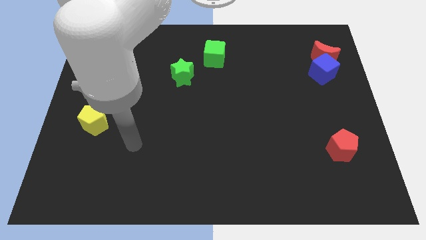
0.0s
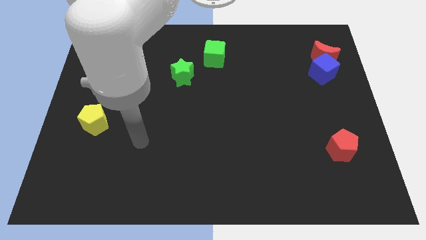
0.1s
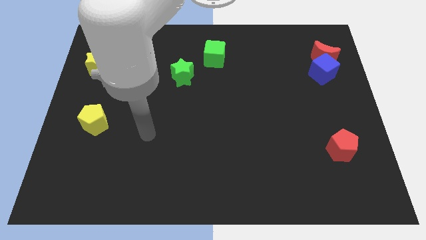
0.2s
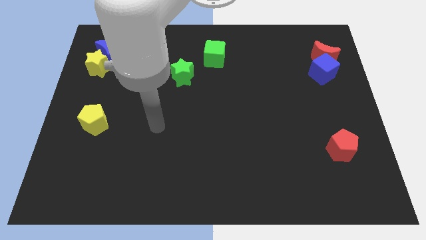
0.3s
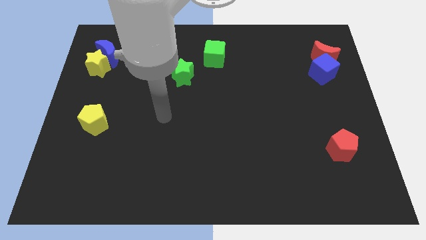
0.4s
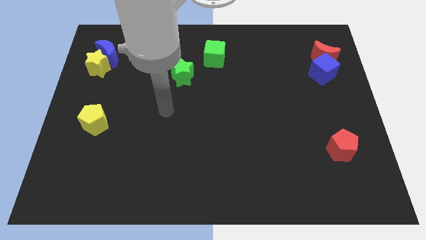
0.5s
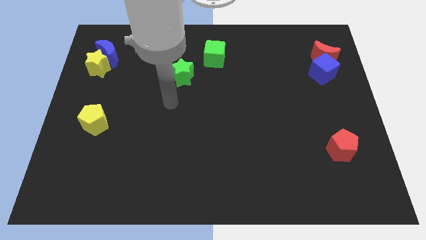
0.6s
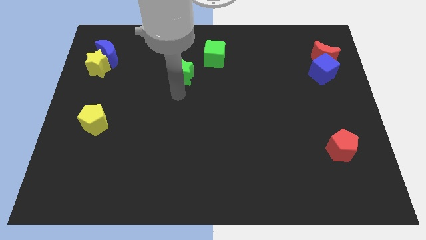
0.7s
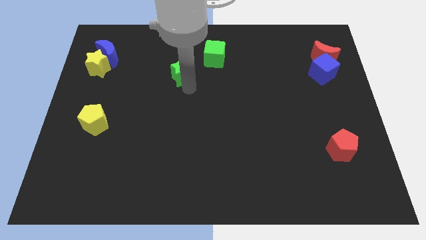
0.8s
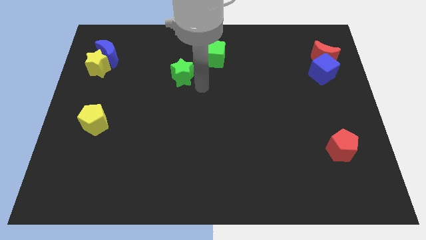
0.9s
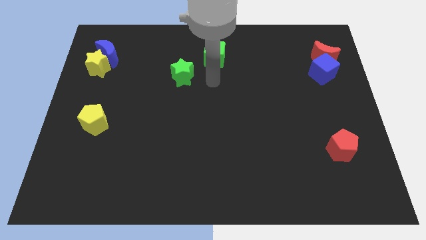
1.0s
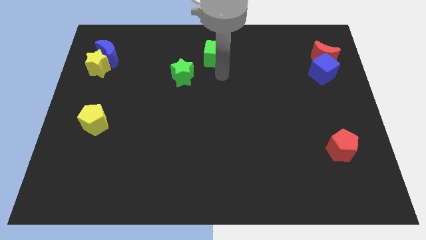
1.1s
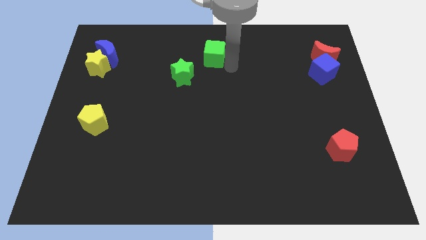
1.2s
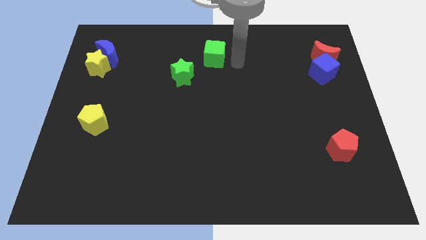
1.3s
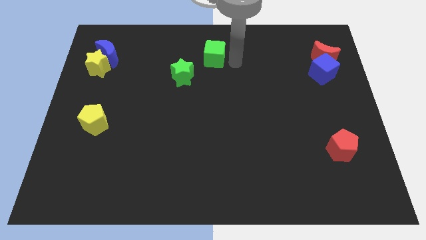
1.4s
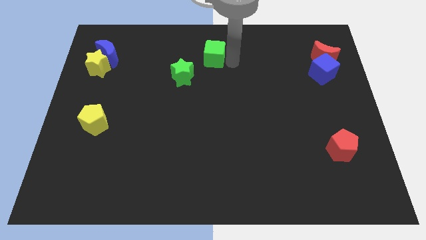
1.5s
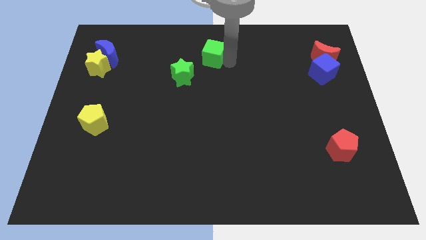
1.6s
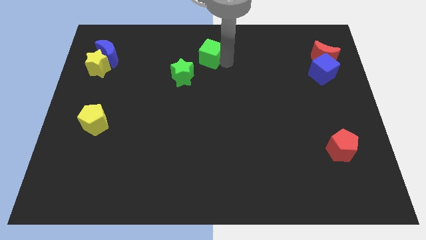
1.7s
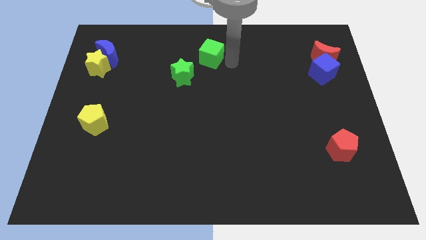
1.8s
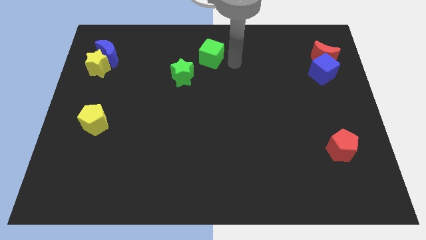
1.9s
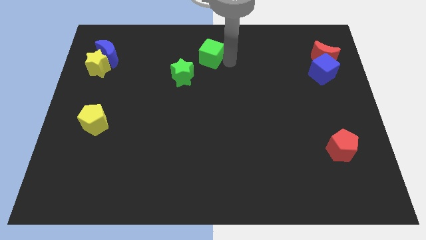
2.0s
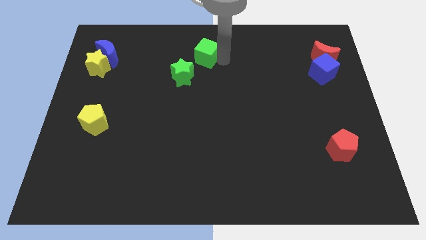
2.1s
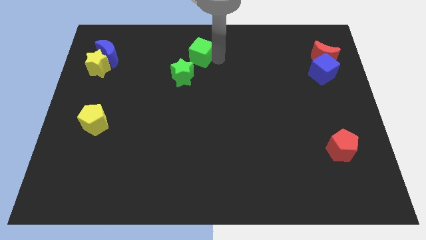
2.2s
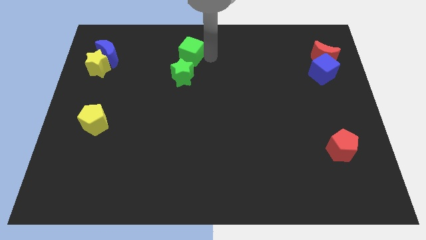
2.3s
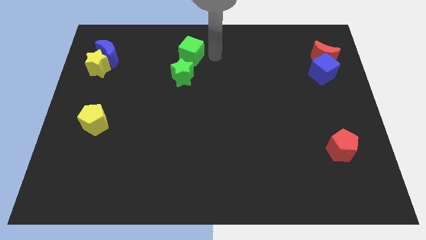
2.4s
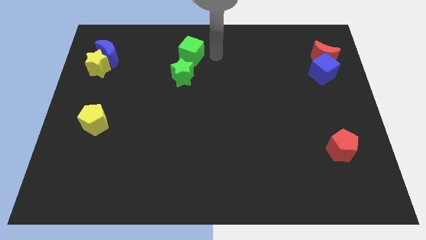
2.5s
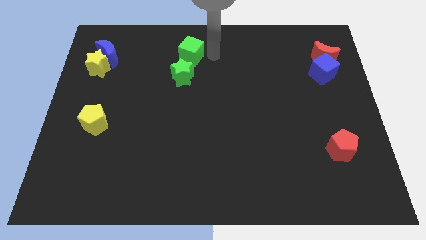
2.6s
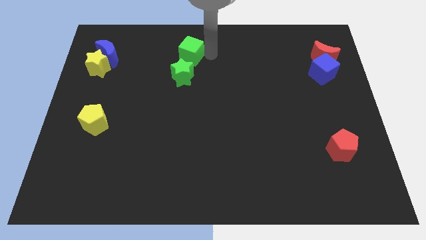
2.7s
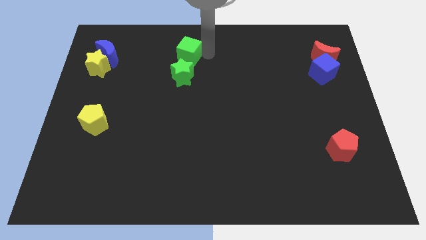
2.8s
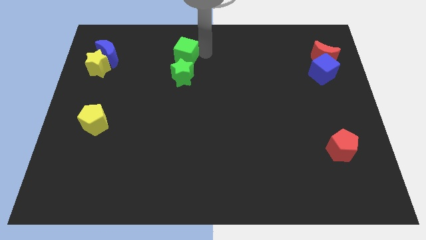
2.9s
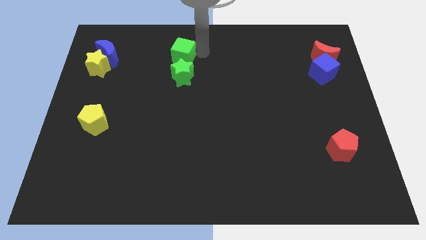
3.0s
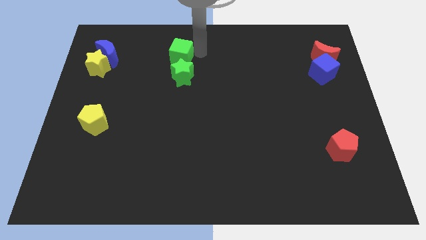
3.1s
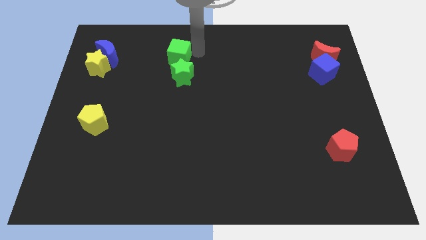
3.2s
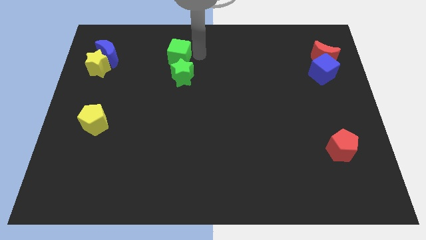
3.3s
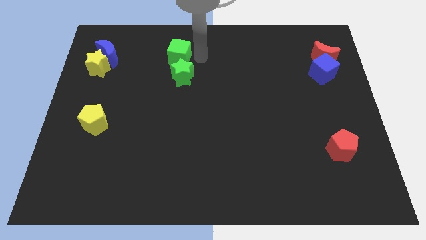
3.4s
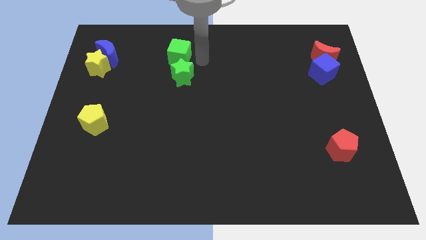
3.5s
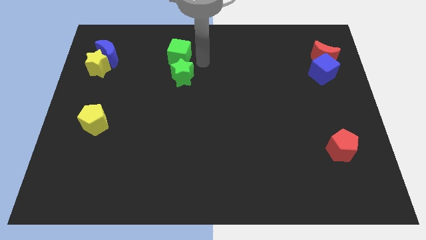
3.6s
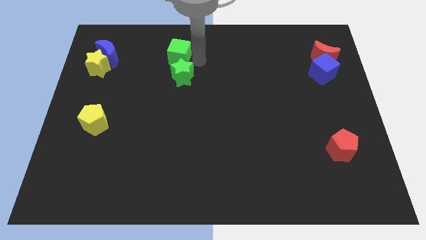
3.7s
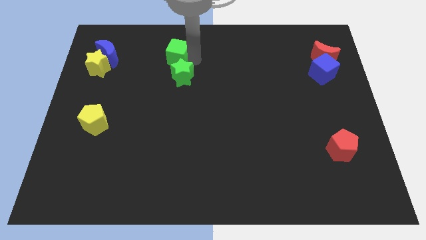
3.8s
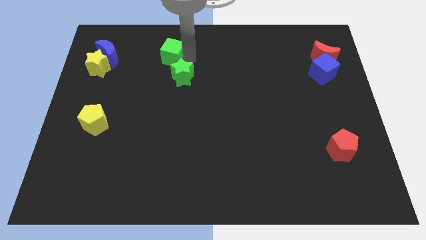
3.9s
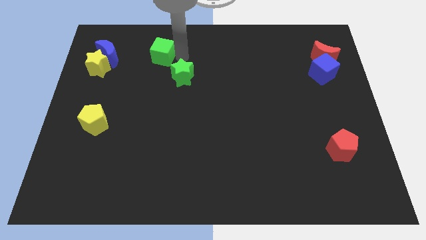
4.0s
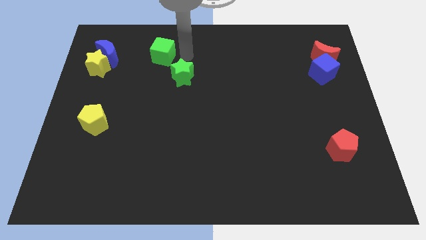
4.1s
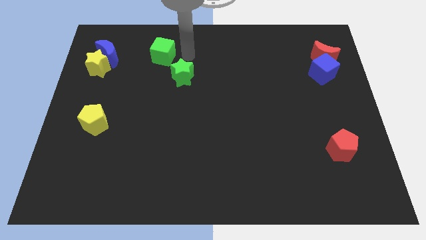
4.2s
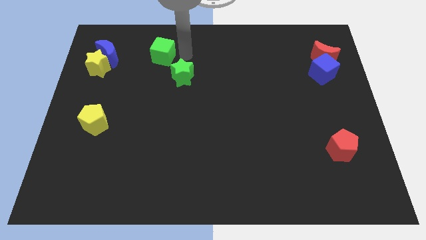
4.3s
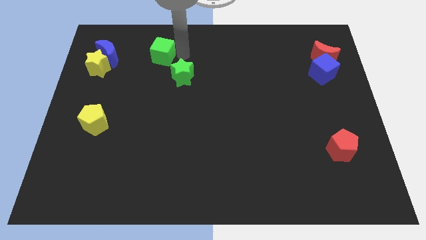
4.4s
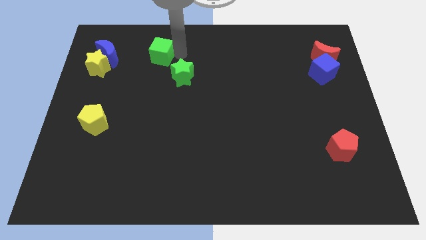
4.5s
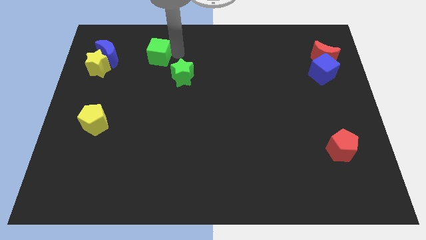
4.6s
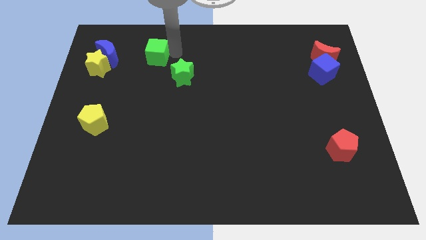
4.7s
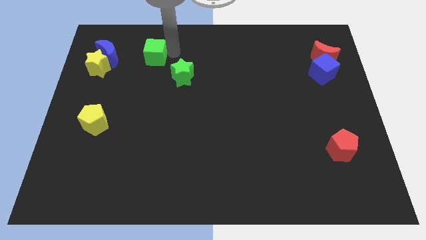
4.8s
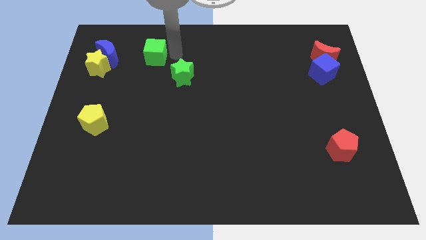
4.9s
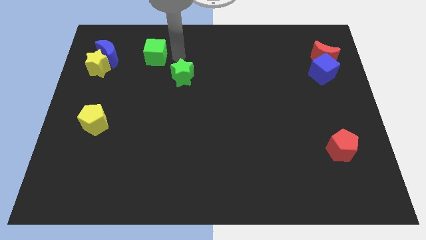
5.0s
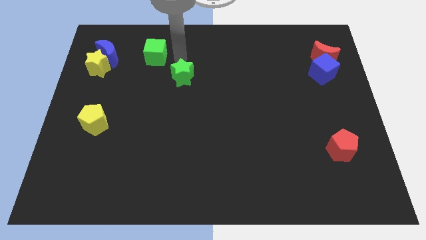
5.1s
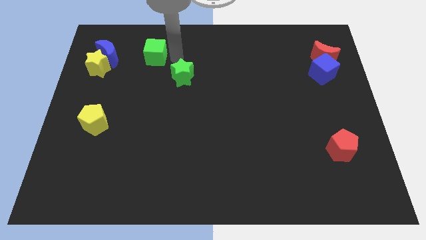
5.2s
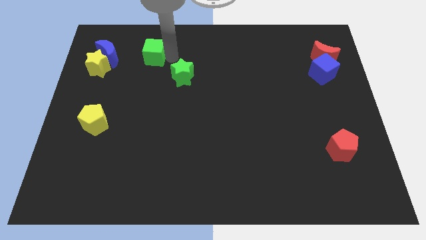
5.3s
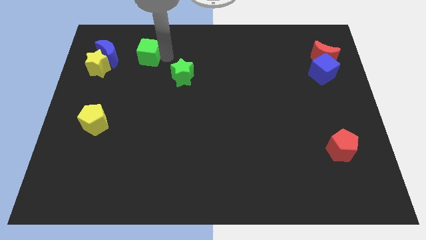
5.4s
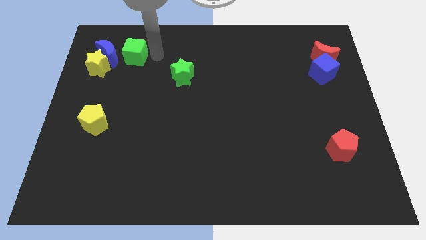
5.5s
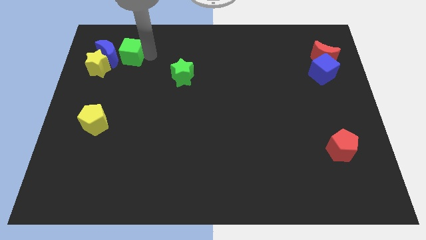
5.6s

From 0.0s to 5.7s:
move the green cube to the blue moon

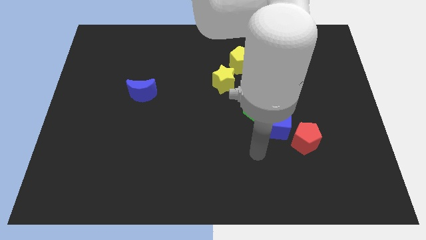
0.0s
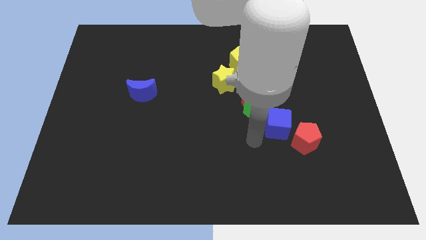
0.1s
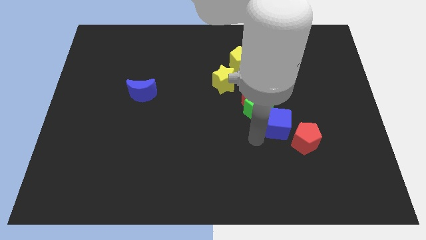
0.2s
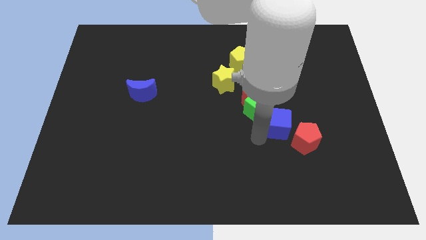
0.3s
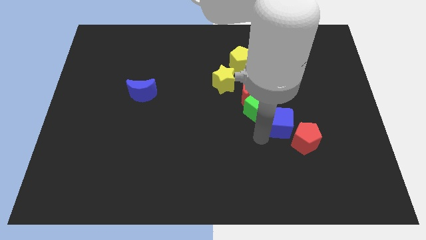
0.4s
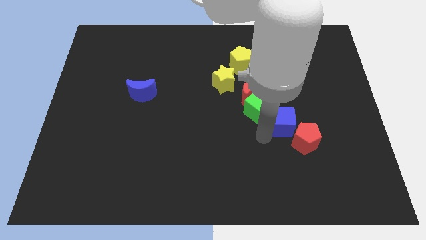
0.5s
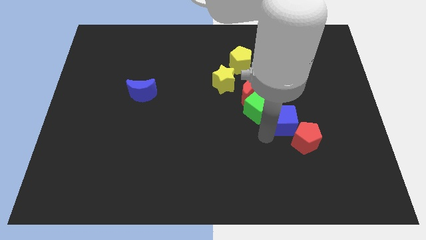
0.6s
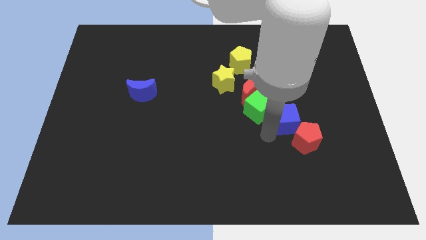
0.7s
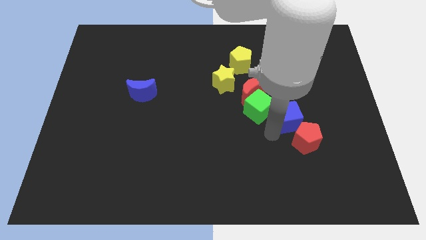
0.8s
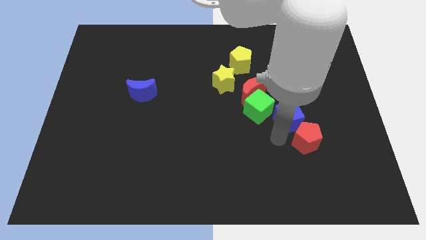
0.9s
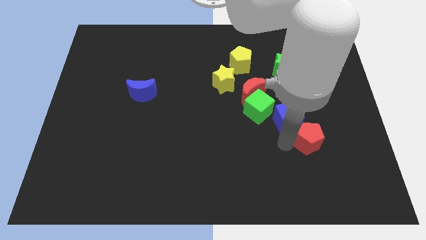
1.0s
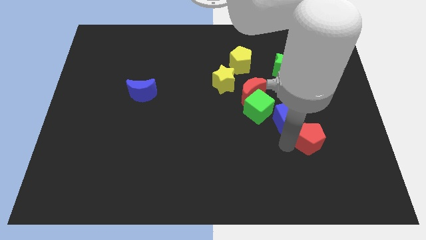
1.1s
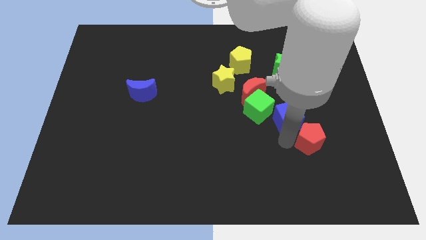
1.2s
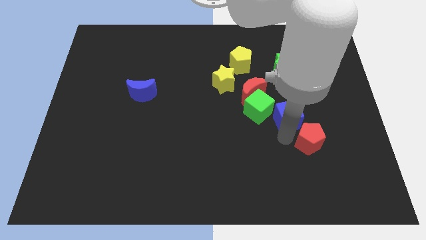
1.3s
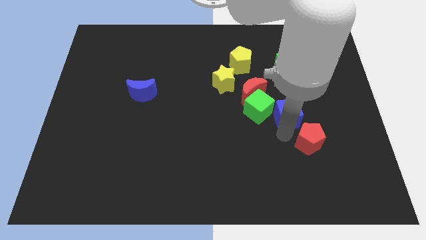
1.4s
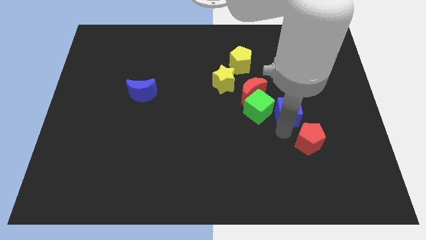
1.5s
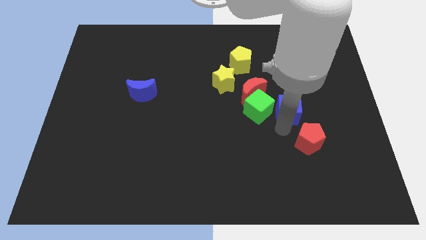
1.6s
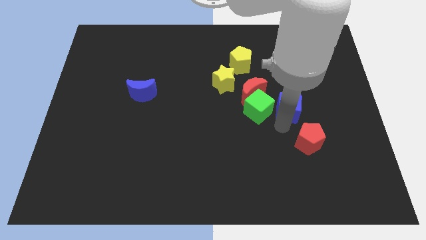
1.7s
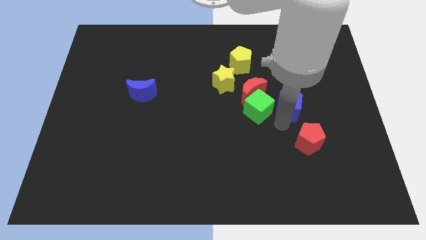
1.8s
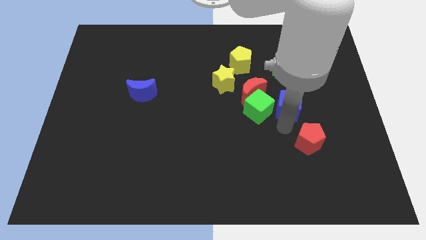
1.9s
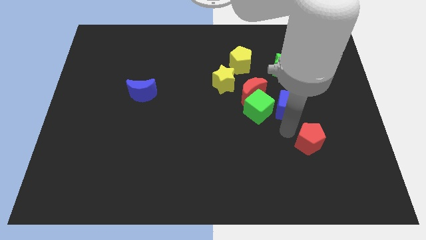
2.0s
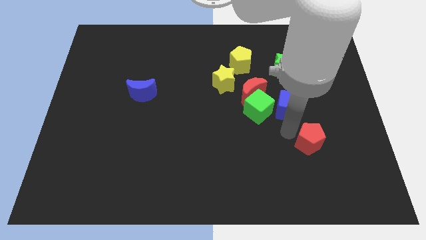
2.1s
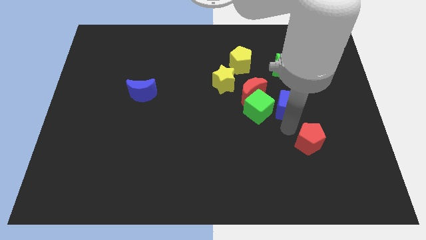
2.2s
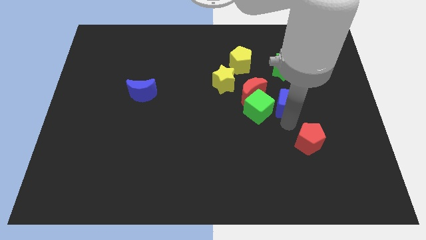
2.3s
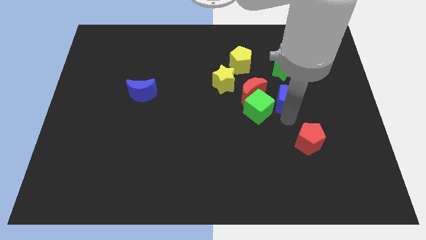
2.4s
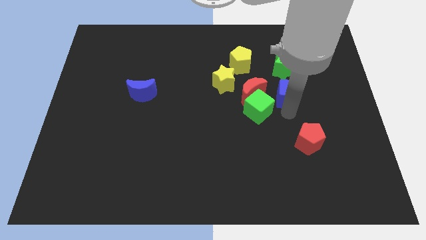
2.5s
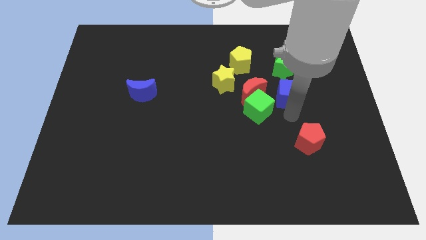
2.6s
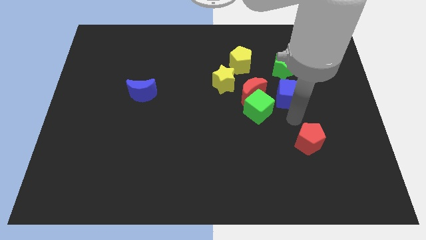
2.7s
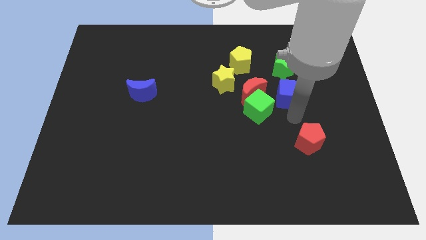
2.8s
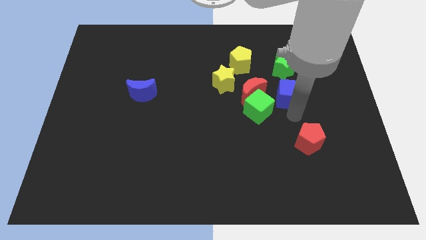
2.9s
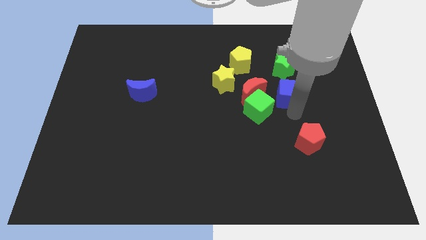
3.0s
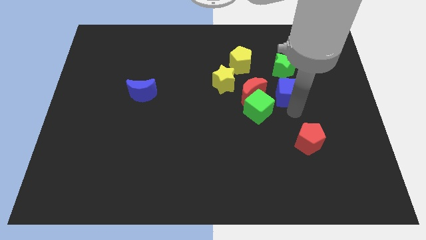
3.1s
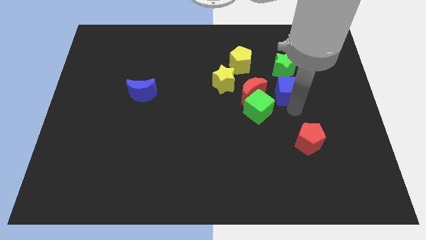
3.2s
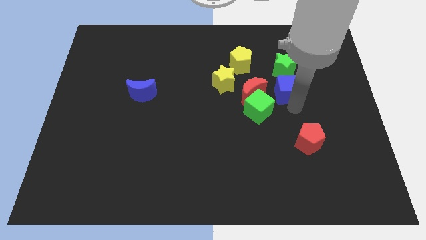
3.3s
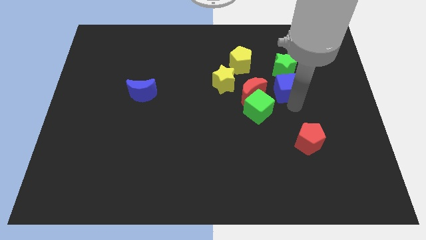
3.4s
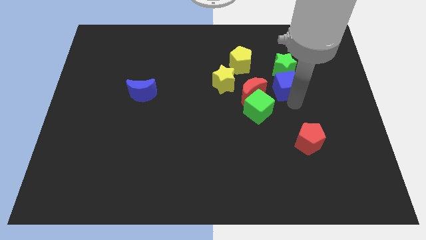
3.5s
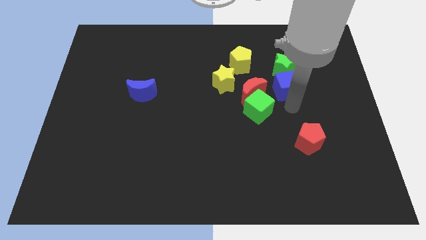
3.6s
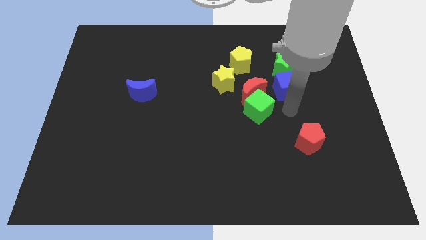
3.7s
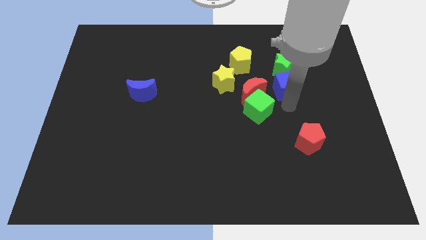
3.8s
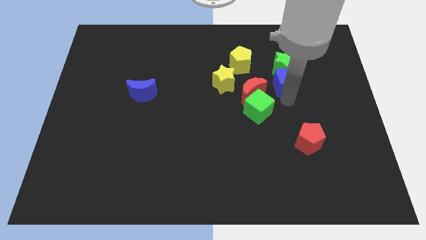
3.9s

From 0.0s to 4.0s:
slide the blue cube close to the green star
